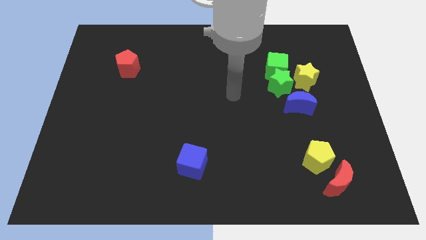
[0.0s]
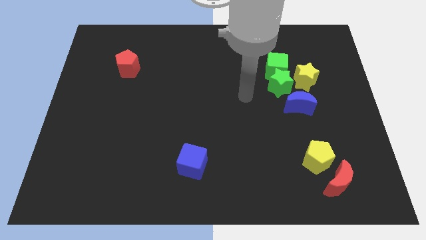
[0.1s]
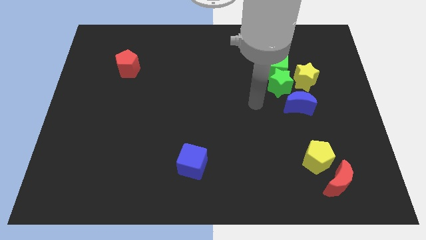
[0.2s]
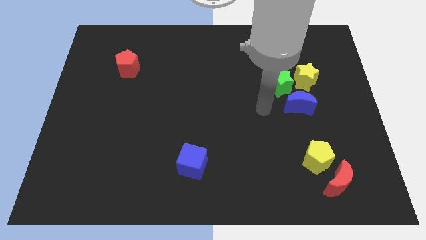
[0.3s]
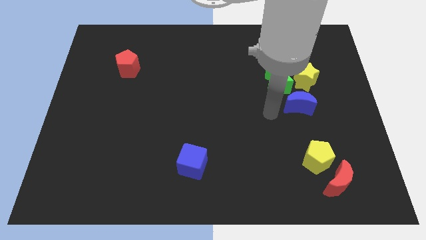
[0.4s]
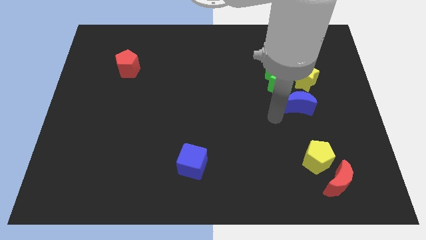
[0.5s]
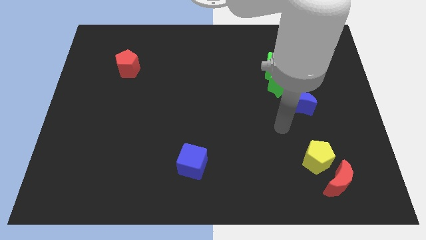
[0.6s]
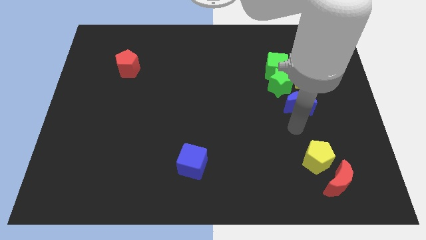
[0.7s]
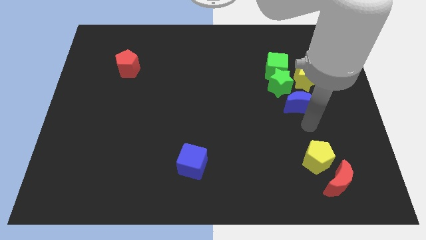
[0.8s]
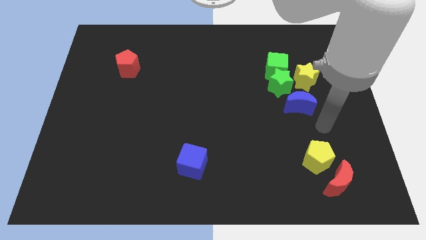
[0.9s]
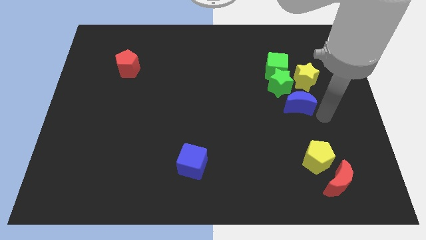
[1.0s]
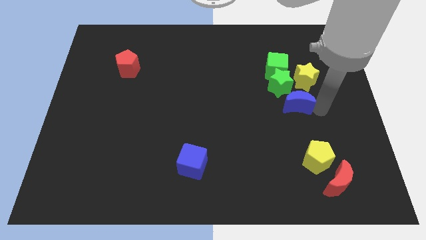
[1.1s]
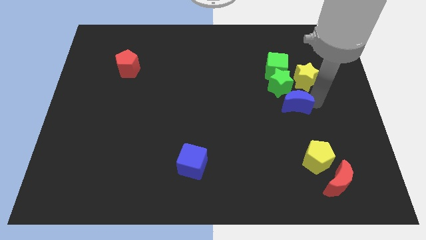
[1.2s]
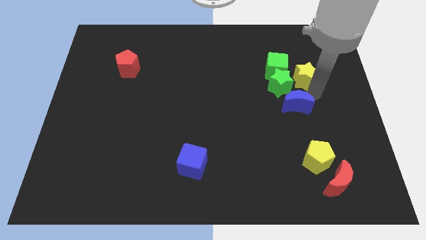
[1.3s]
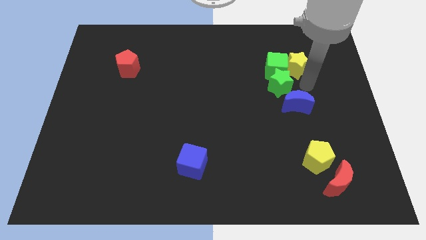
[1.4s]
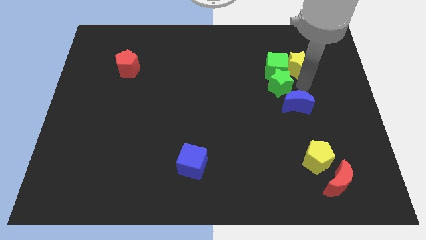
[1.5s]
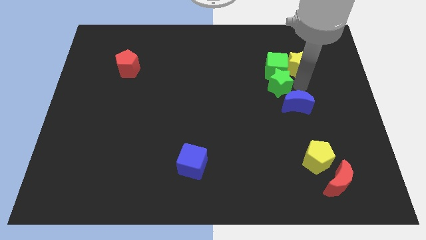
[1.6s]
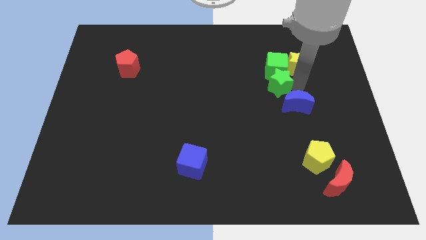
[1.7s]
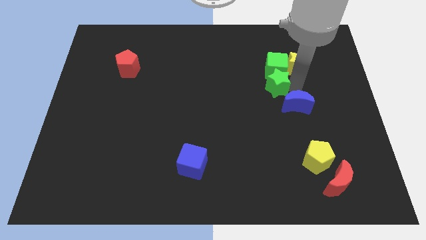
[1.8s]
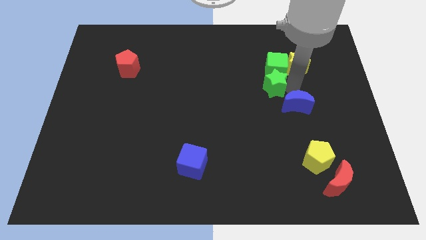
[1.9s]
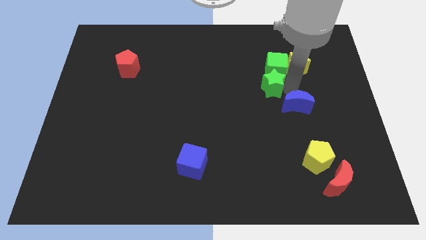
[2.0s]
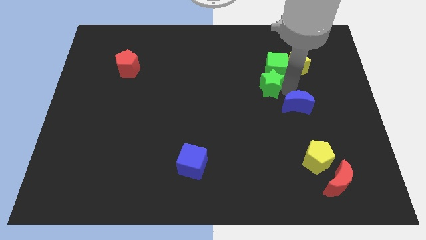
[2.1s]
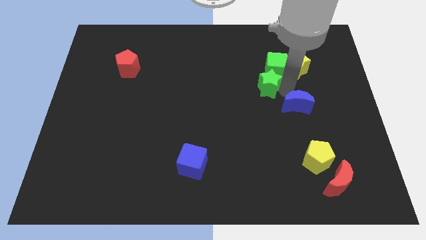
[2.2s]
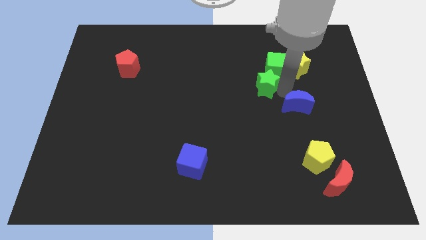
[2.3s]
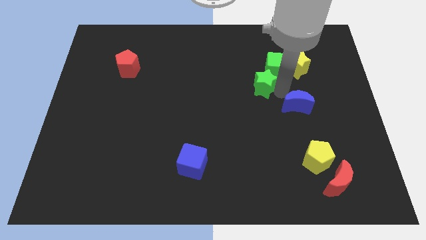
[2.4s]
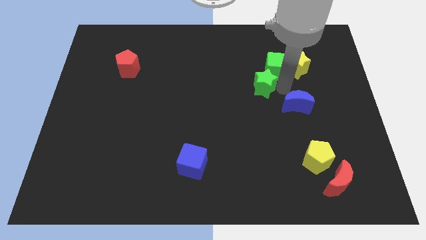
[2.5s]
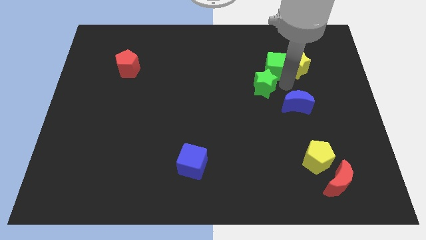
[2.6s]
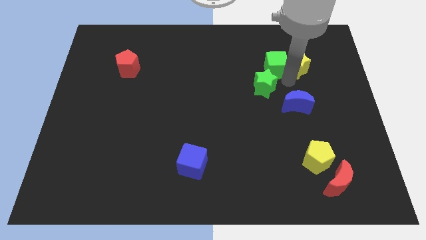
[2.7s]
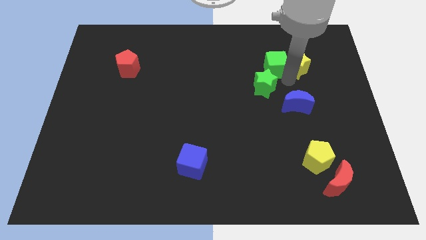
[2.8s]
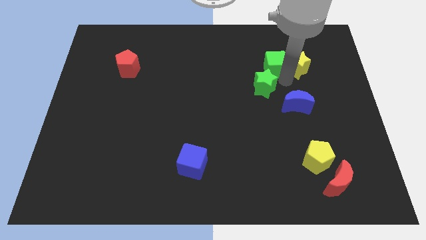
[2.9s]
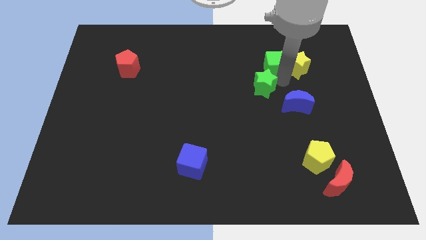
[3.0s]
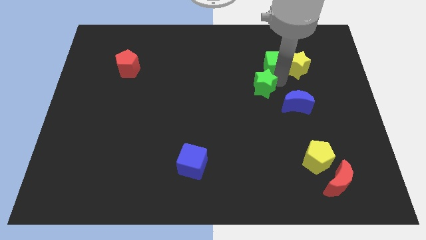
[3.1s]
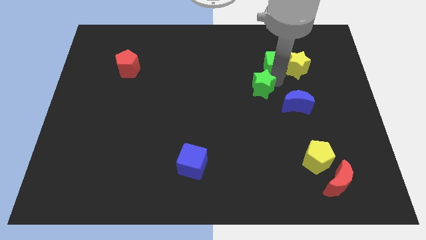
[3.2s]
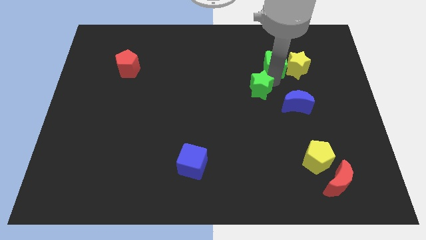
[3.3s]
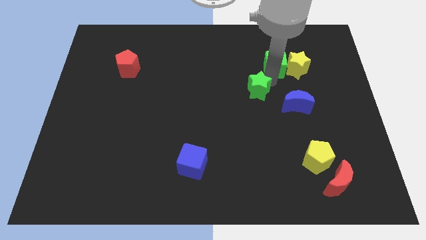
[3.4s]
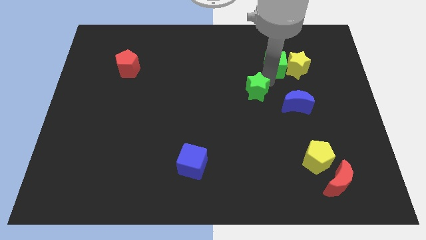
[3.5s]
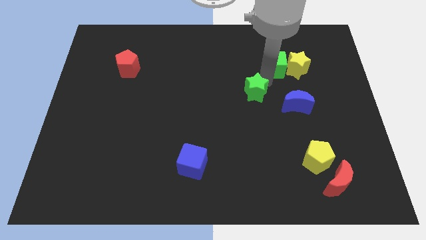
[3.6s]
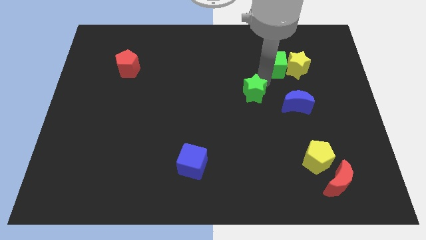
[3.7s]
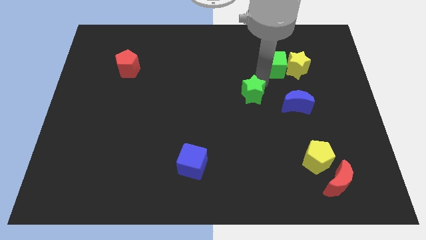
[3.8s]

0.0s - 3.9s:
separate the green star from the green cube, yellow star, and blue moon

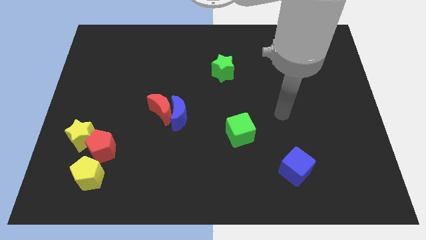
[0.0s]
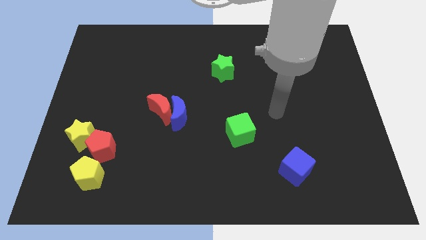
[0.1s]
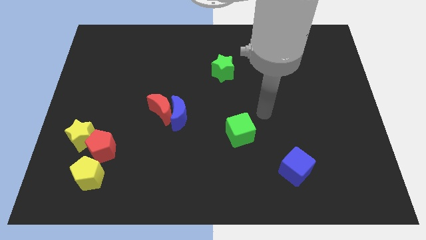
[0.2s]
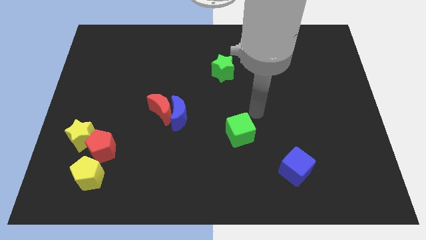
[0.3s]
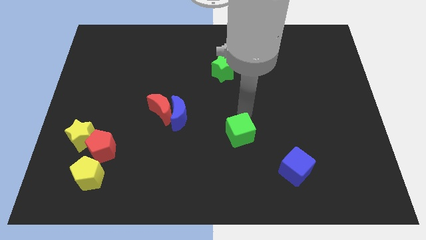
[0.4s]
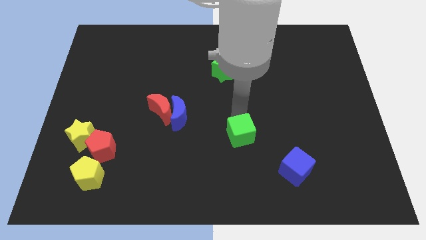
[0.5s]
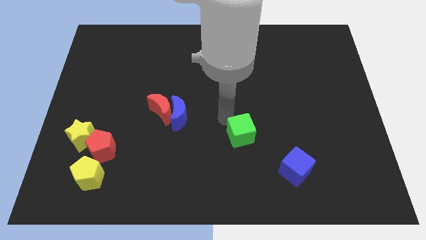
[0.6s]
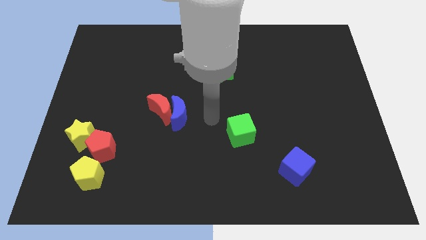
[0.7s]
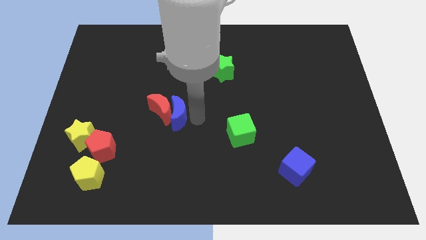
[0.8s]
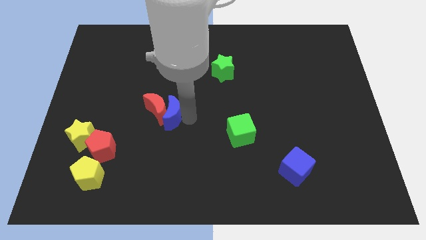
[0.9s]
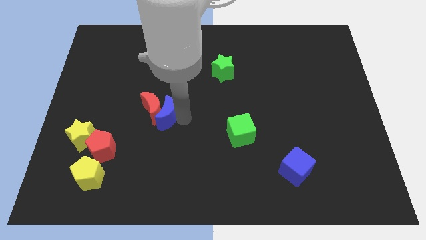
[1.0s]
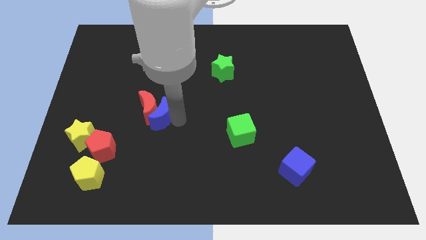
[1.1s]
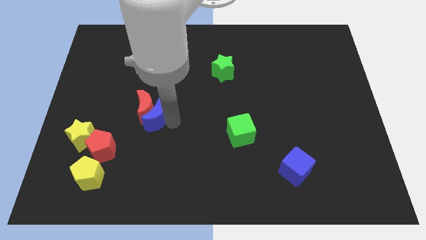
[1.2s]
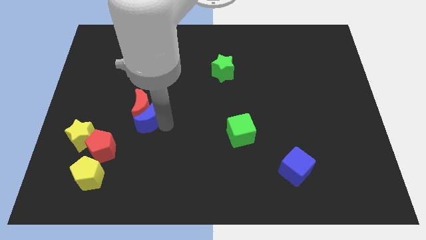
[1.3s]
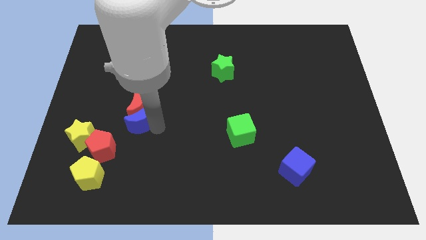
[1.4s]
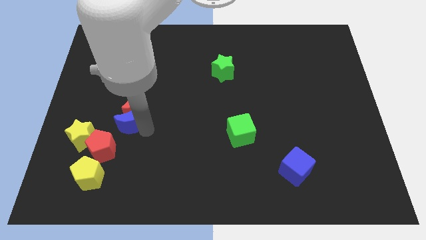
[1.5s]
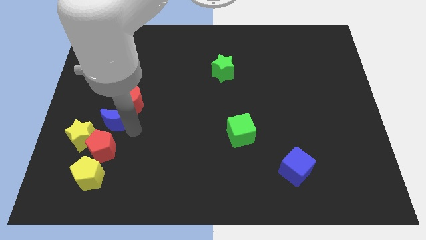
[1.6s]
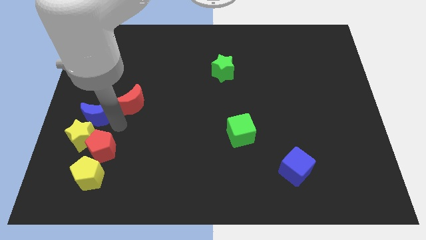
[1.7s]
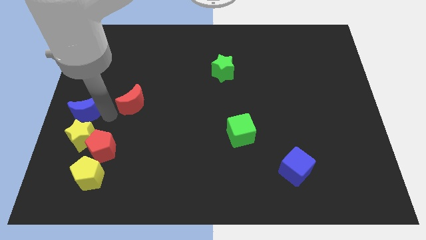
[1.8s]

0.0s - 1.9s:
move the red moon away from the blue moon

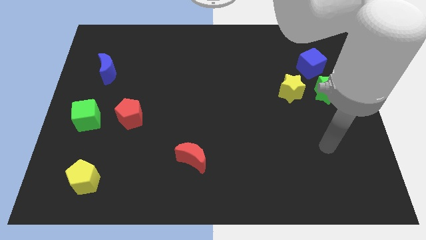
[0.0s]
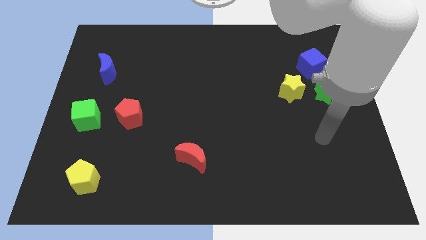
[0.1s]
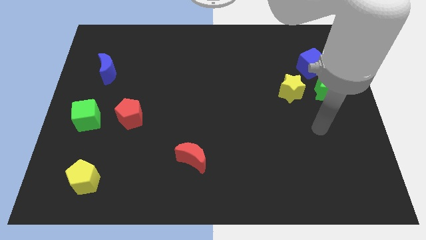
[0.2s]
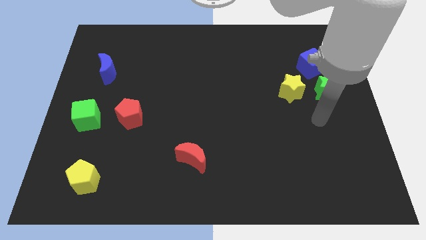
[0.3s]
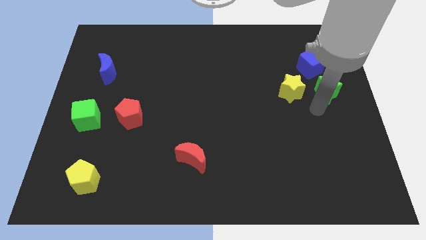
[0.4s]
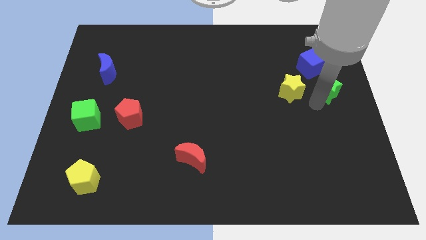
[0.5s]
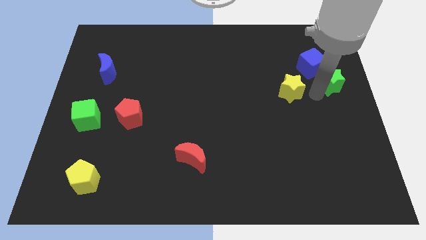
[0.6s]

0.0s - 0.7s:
move the yellow star away from the green star

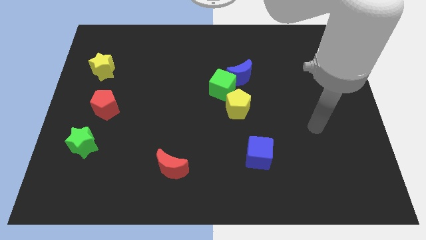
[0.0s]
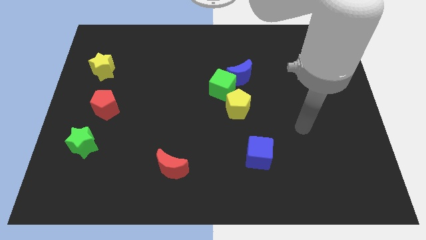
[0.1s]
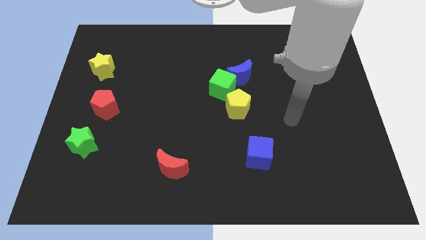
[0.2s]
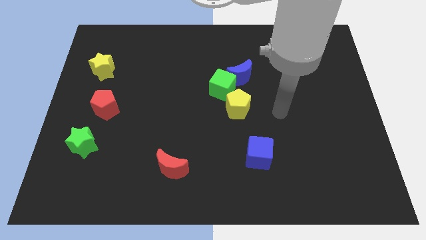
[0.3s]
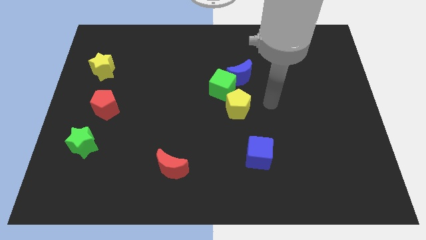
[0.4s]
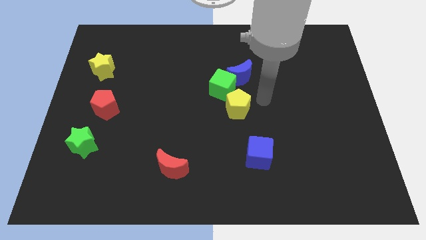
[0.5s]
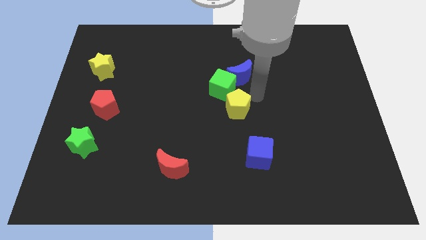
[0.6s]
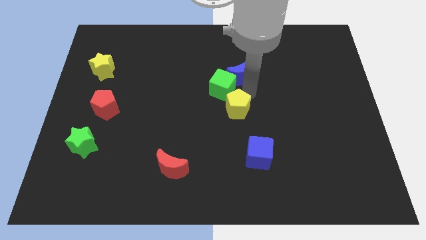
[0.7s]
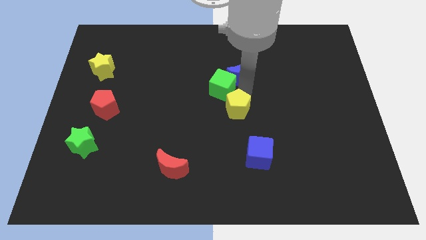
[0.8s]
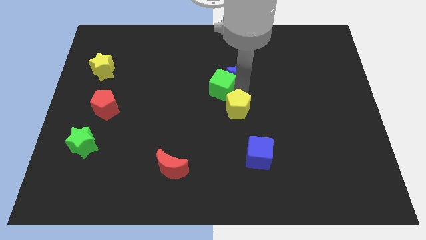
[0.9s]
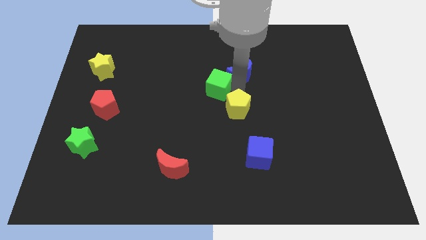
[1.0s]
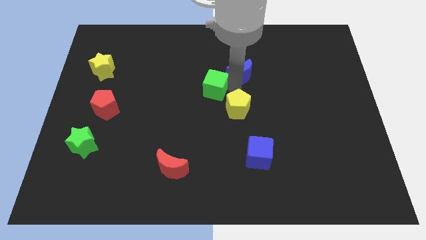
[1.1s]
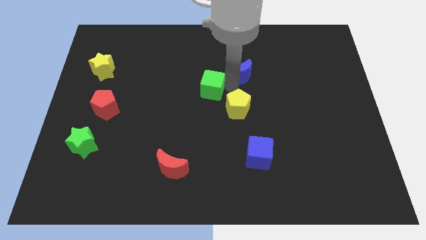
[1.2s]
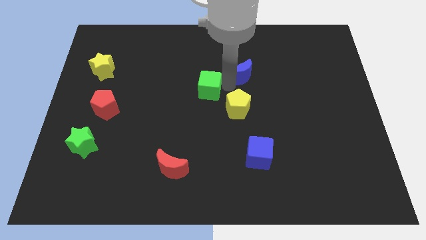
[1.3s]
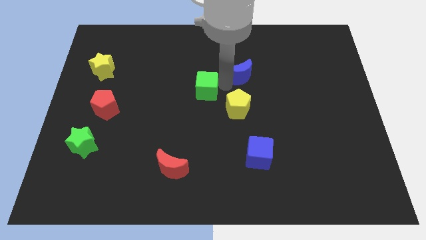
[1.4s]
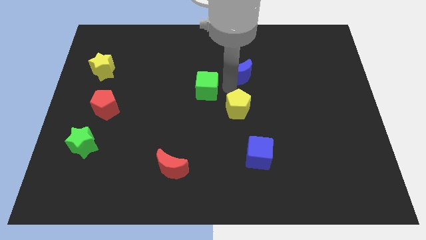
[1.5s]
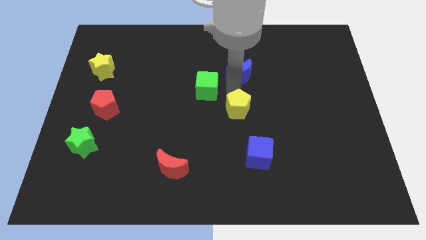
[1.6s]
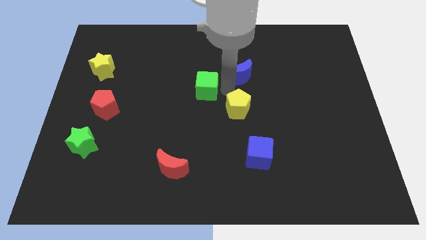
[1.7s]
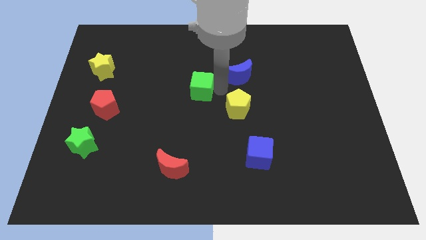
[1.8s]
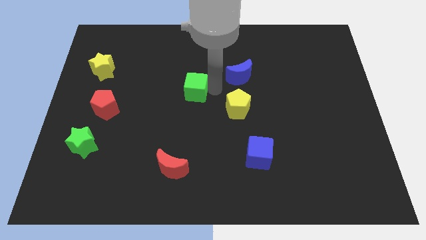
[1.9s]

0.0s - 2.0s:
move the green cube away from the blue moon and yellow pentagon

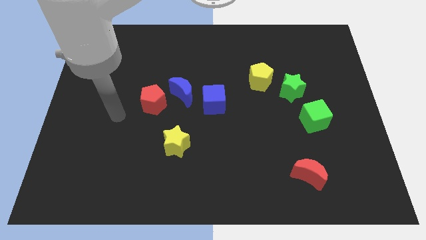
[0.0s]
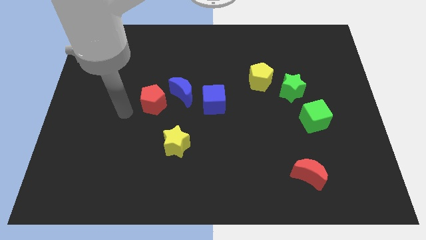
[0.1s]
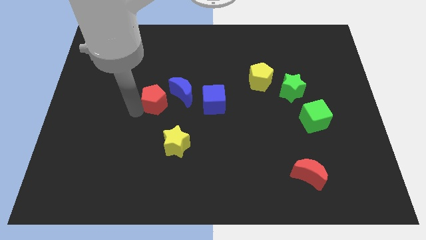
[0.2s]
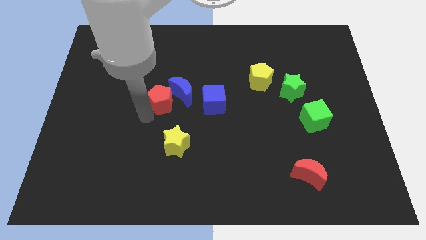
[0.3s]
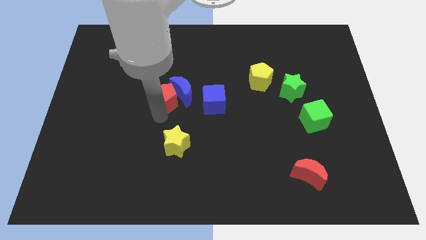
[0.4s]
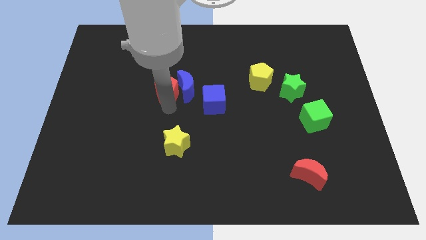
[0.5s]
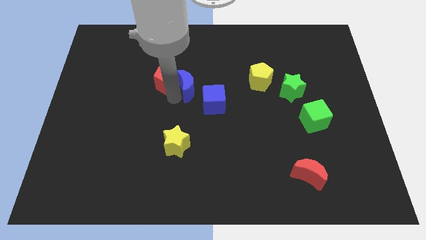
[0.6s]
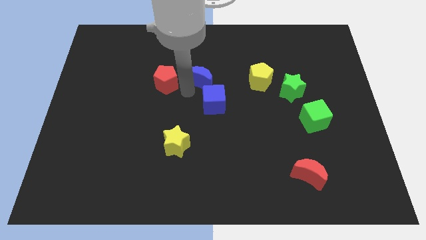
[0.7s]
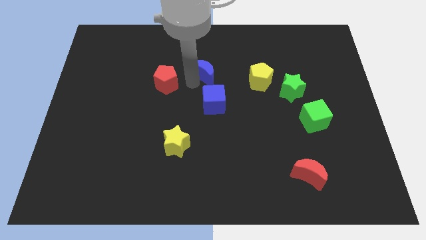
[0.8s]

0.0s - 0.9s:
separate the red pentagon from the blue moon
